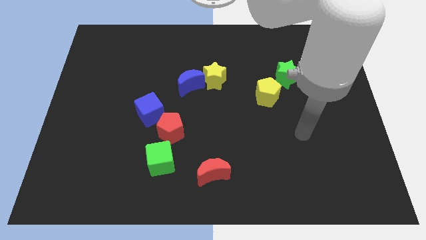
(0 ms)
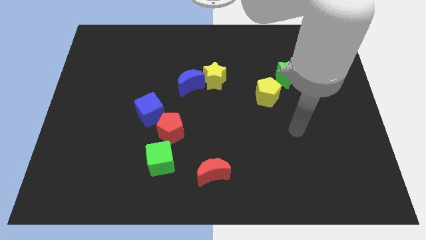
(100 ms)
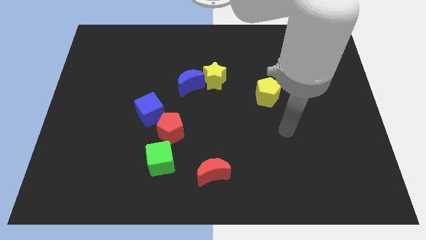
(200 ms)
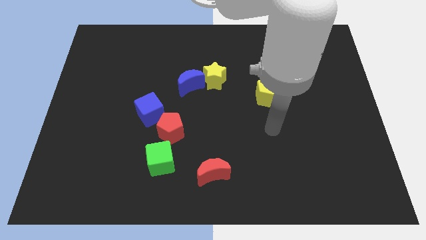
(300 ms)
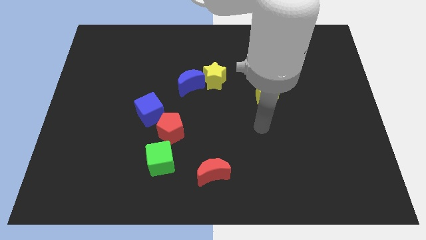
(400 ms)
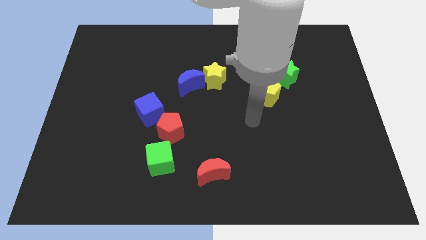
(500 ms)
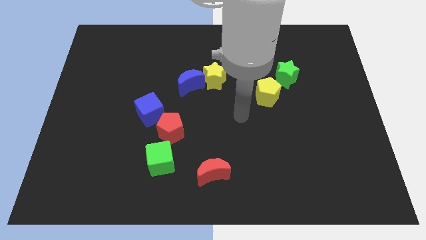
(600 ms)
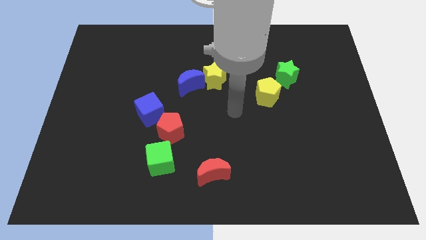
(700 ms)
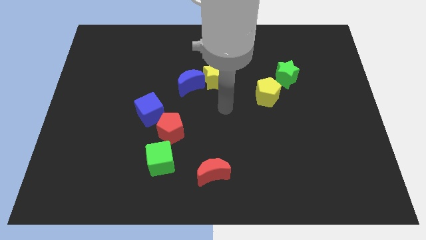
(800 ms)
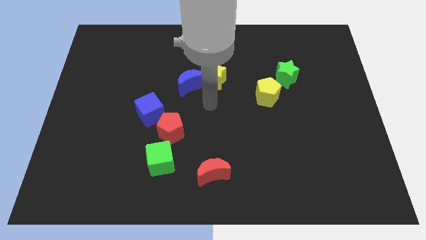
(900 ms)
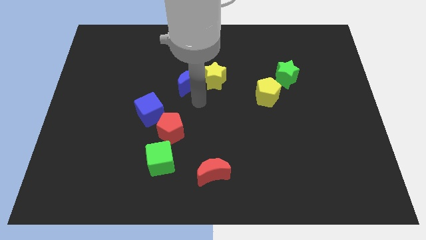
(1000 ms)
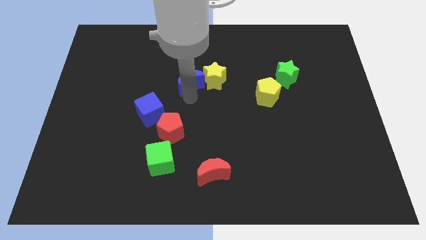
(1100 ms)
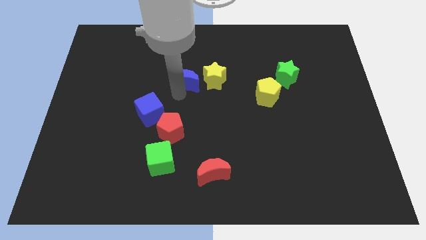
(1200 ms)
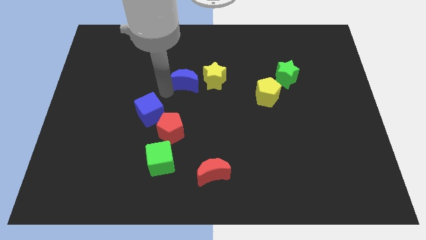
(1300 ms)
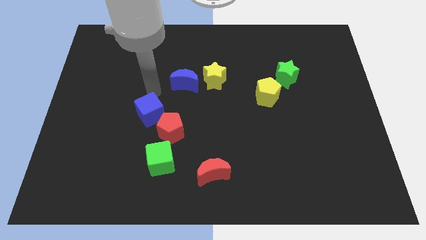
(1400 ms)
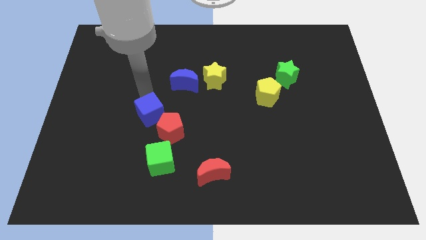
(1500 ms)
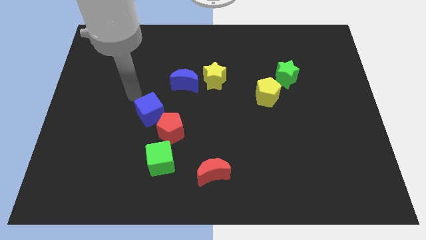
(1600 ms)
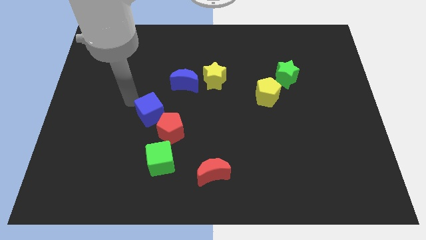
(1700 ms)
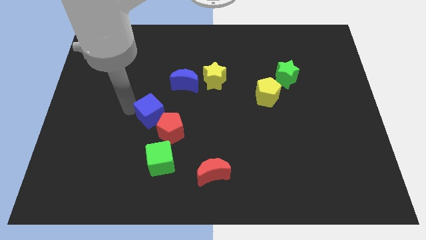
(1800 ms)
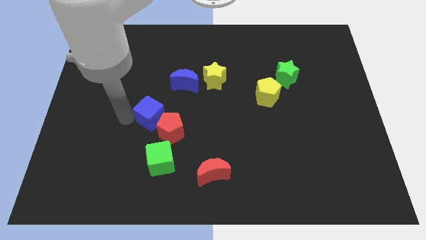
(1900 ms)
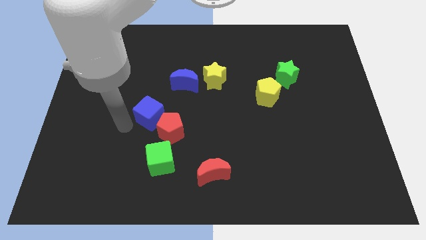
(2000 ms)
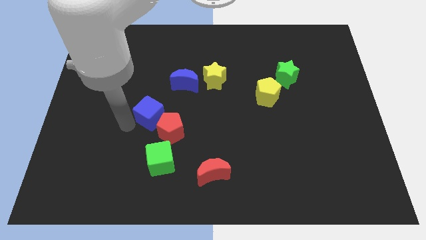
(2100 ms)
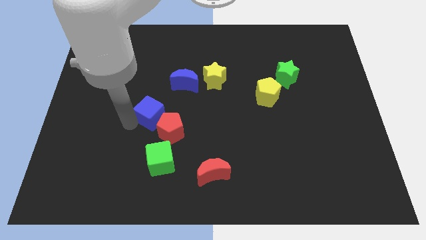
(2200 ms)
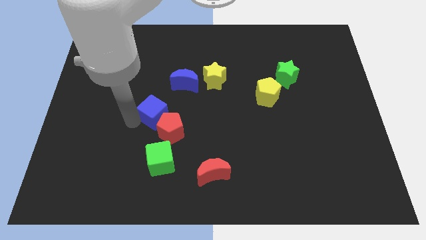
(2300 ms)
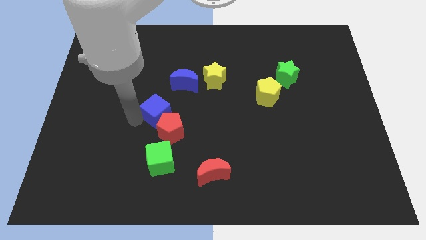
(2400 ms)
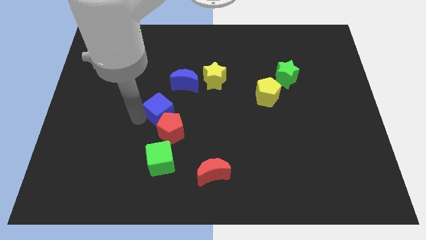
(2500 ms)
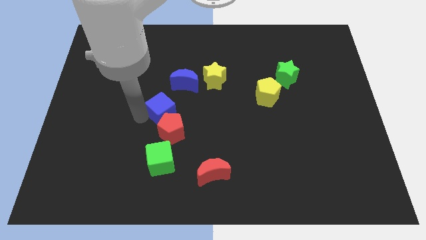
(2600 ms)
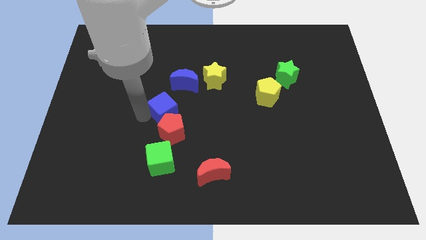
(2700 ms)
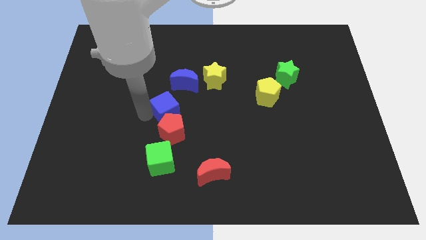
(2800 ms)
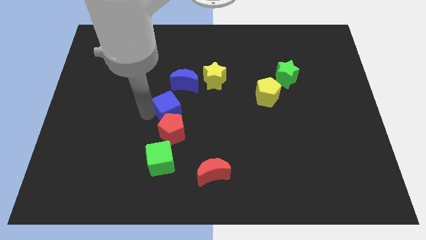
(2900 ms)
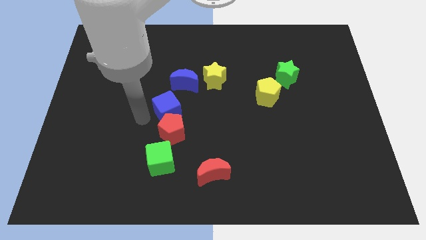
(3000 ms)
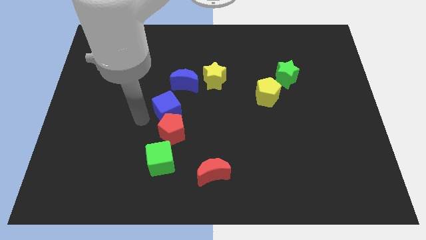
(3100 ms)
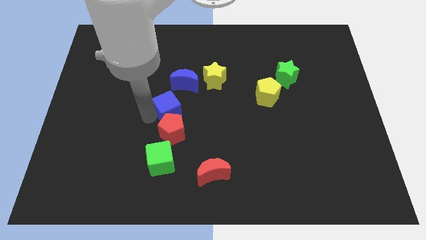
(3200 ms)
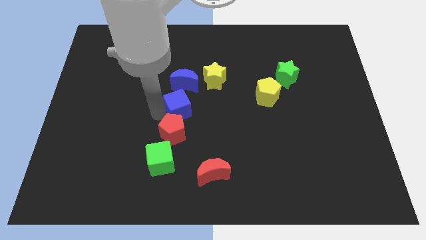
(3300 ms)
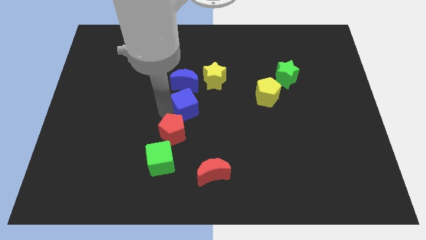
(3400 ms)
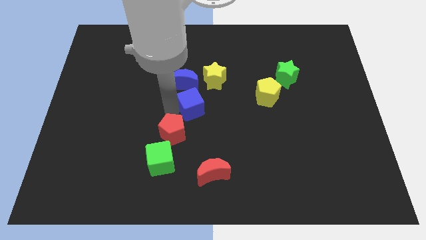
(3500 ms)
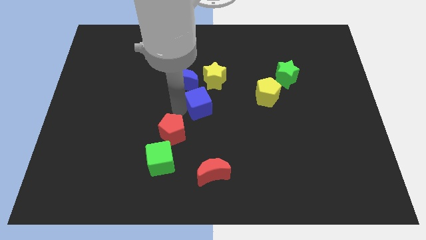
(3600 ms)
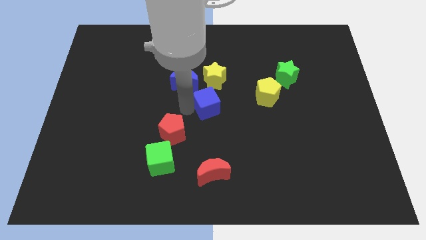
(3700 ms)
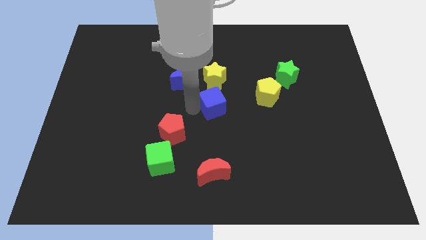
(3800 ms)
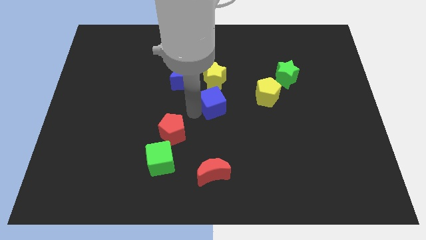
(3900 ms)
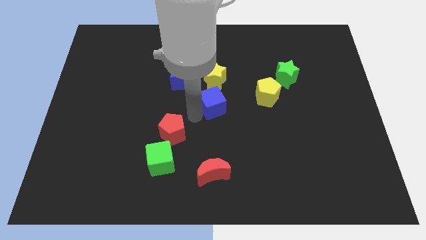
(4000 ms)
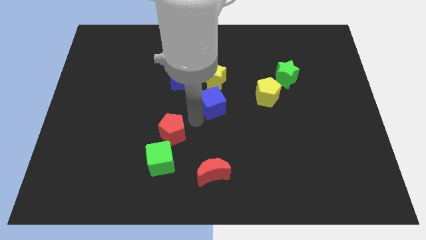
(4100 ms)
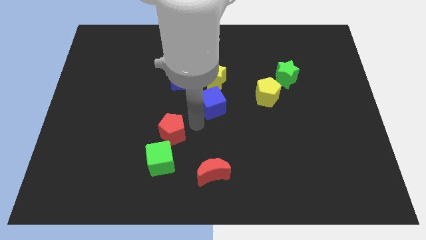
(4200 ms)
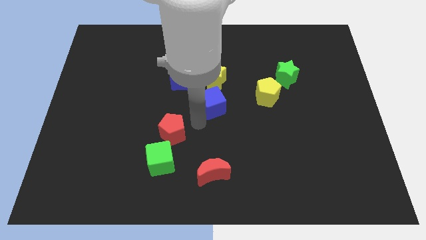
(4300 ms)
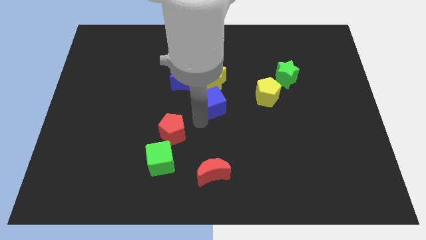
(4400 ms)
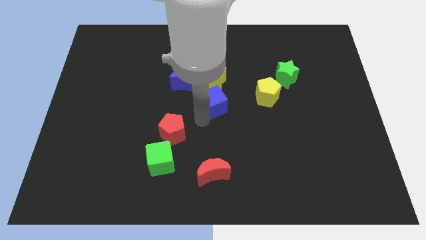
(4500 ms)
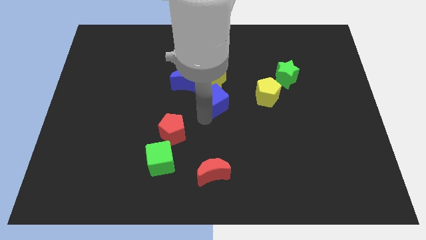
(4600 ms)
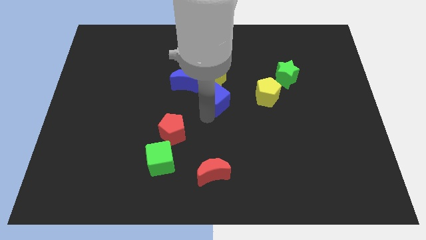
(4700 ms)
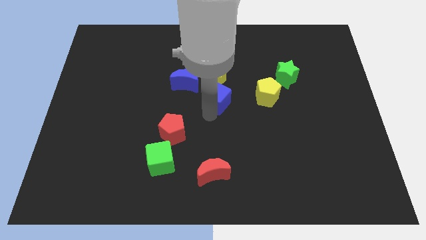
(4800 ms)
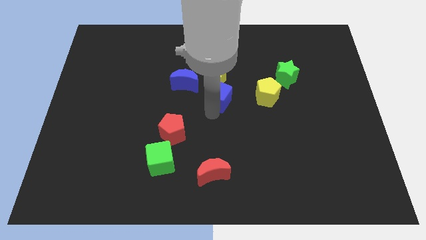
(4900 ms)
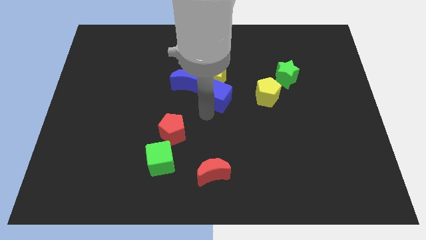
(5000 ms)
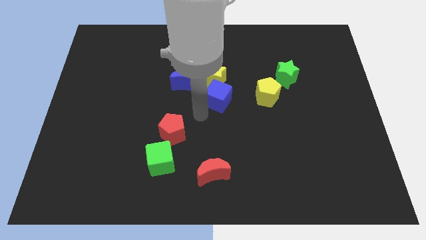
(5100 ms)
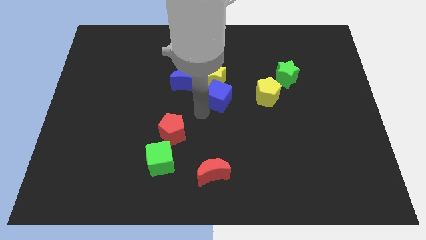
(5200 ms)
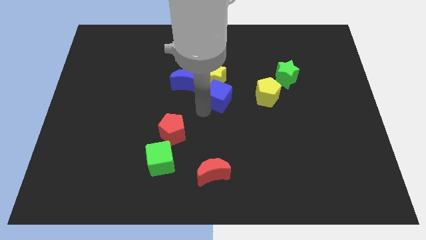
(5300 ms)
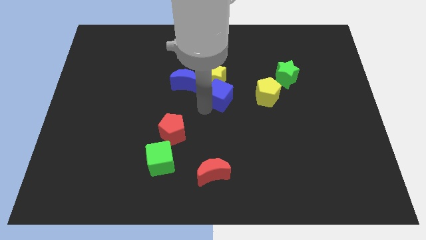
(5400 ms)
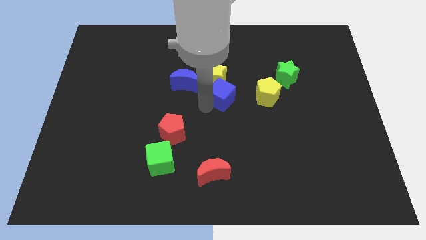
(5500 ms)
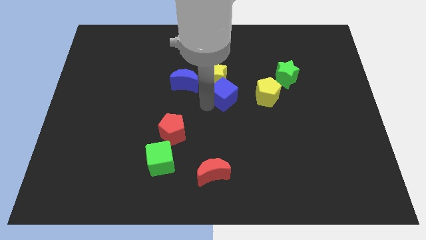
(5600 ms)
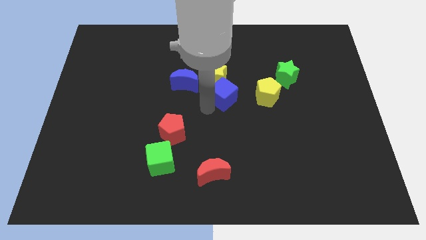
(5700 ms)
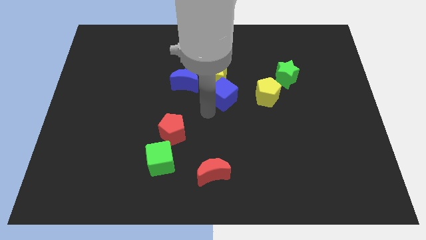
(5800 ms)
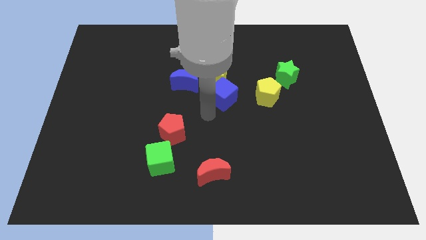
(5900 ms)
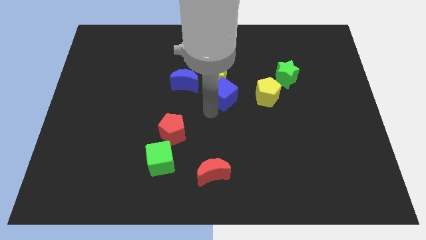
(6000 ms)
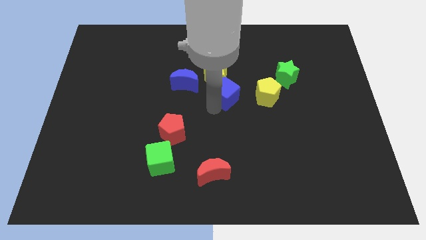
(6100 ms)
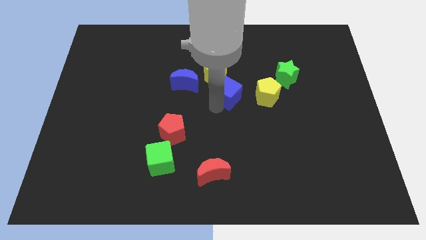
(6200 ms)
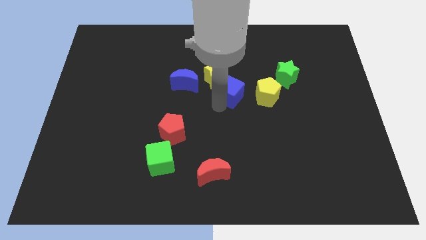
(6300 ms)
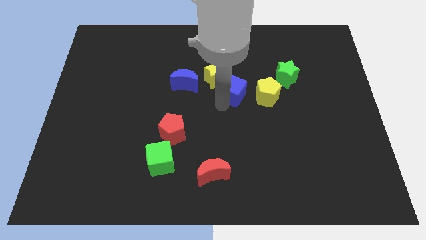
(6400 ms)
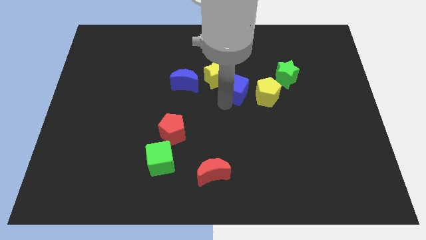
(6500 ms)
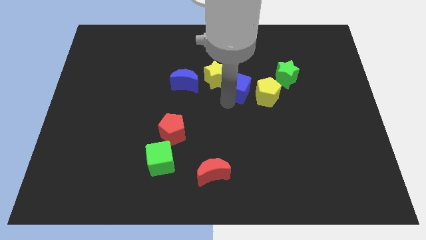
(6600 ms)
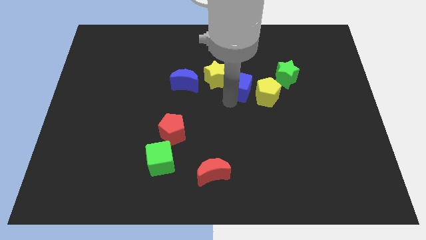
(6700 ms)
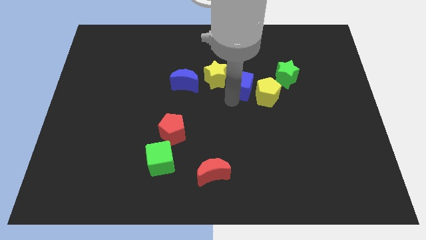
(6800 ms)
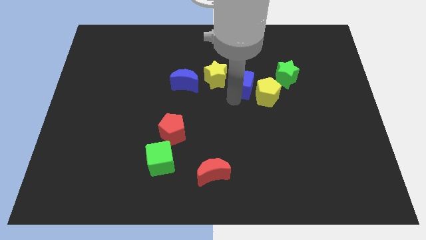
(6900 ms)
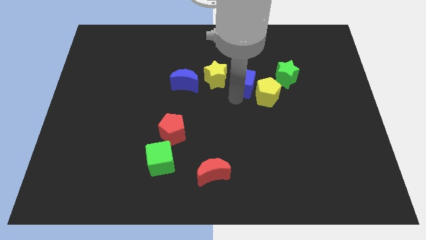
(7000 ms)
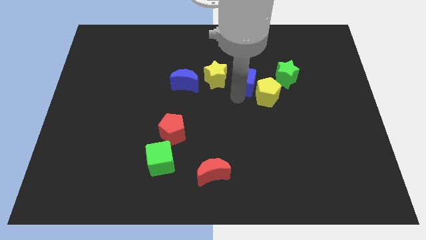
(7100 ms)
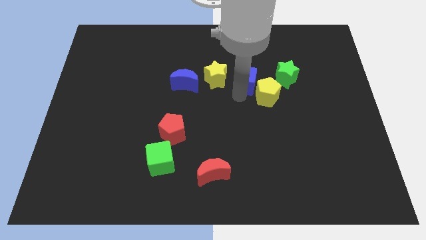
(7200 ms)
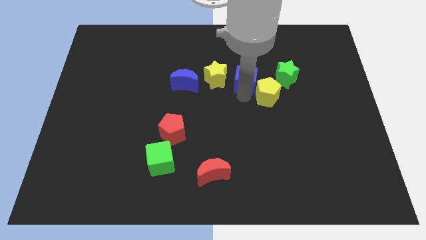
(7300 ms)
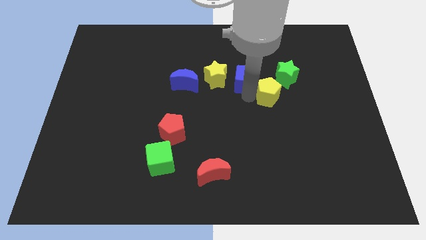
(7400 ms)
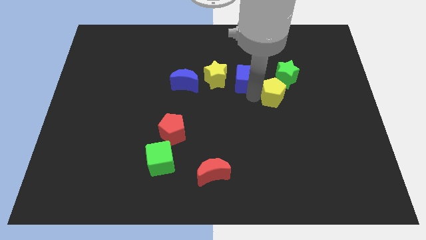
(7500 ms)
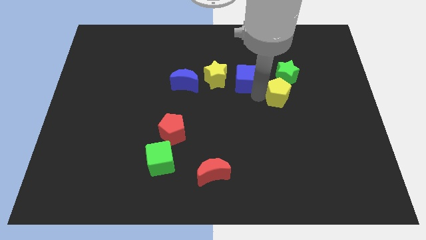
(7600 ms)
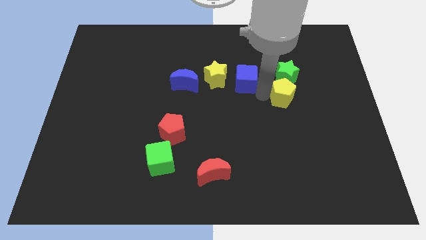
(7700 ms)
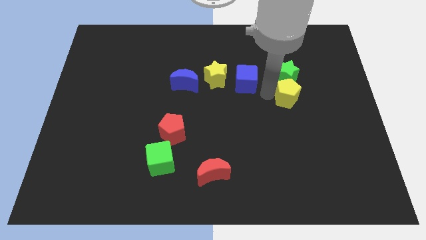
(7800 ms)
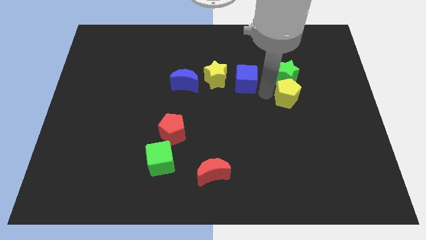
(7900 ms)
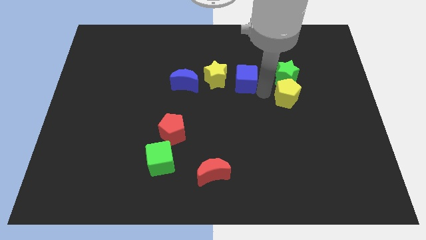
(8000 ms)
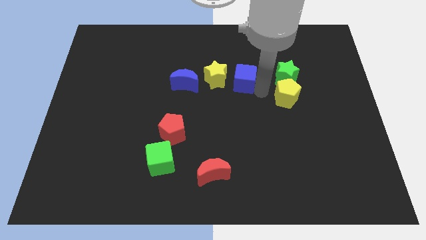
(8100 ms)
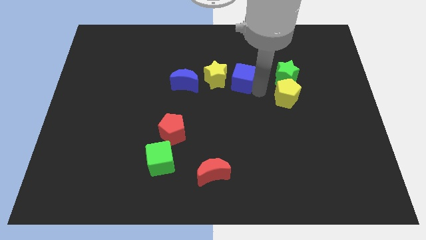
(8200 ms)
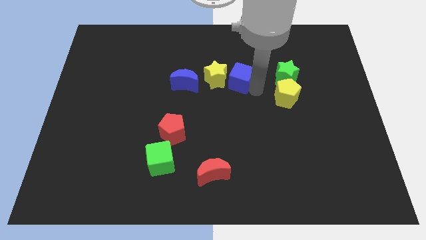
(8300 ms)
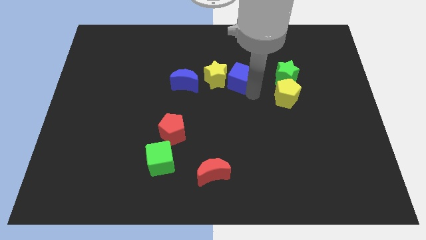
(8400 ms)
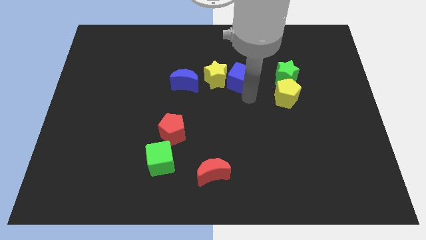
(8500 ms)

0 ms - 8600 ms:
slide the blue cube diagonally up and to the right of the yellow star
